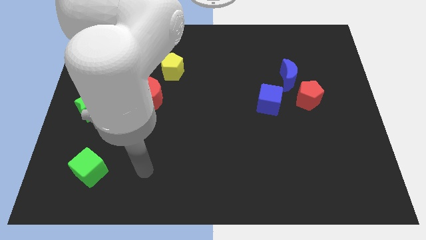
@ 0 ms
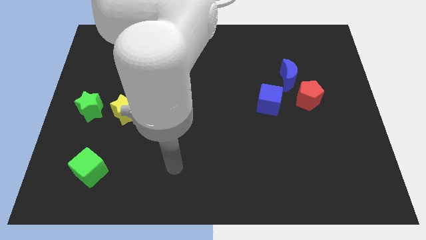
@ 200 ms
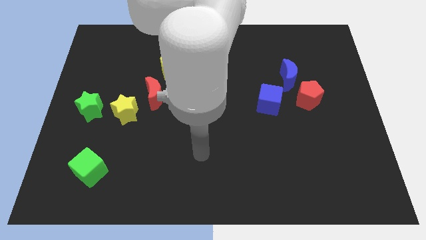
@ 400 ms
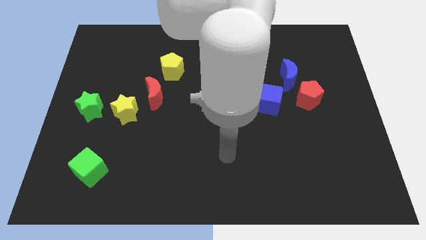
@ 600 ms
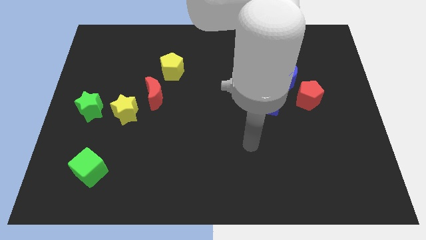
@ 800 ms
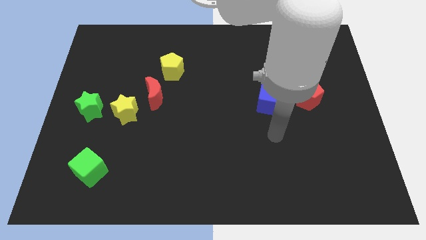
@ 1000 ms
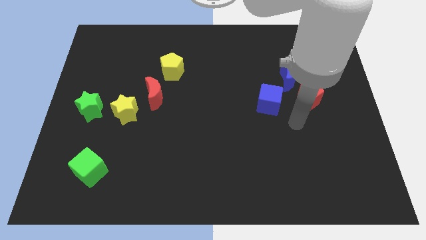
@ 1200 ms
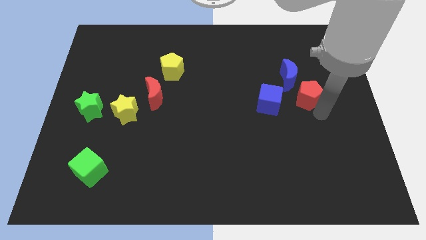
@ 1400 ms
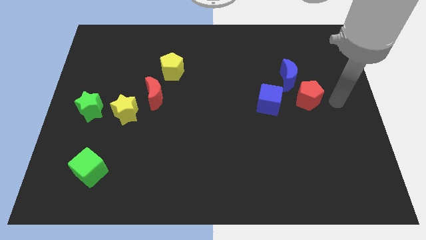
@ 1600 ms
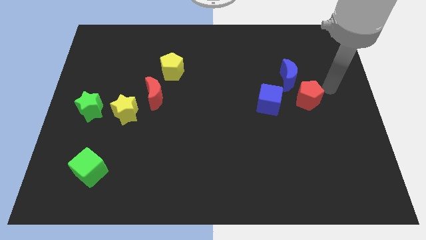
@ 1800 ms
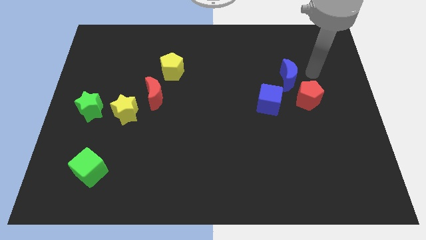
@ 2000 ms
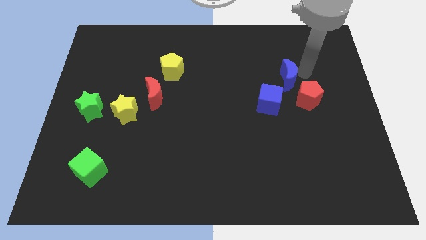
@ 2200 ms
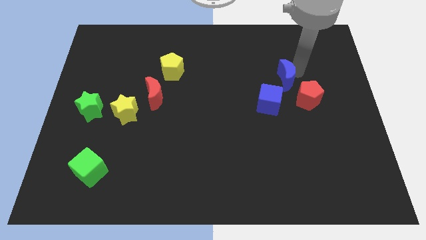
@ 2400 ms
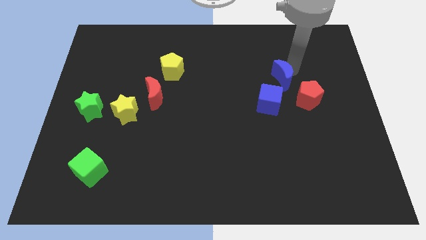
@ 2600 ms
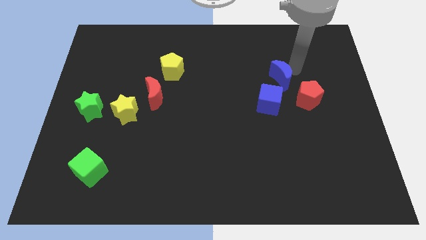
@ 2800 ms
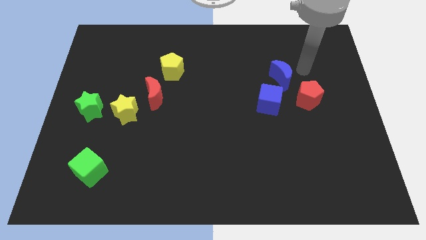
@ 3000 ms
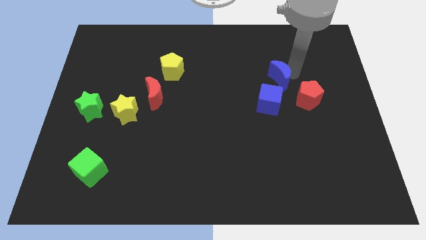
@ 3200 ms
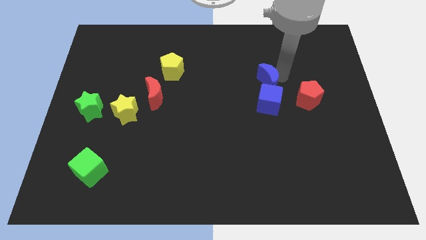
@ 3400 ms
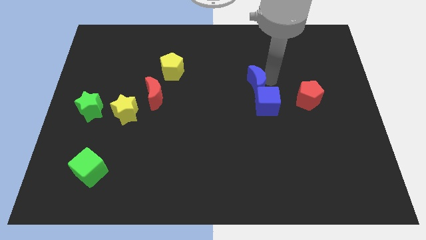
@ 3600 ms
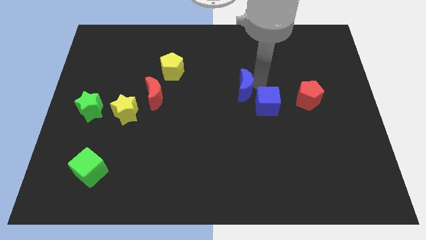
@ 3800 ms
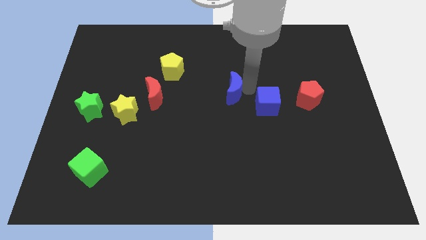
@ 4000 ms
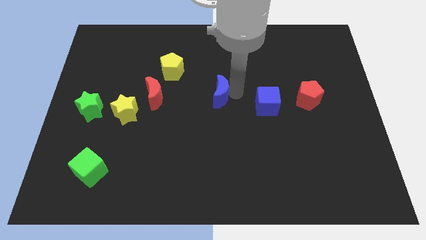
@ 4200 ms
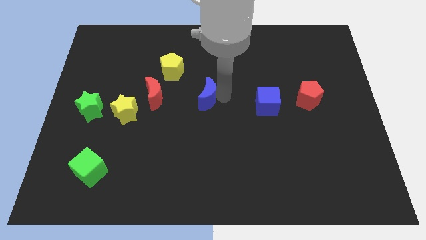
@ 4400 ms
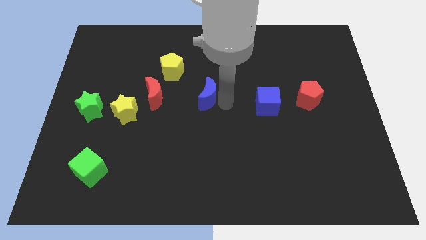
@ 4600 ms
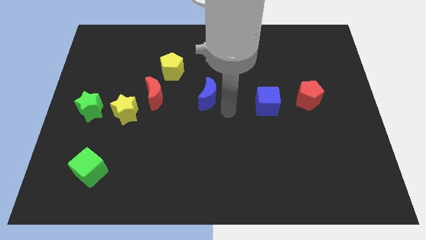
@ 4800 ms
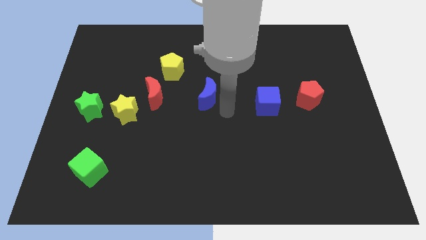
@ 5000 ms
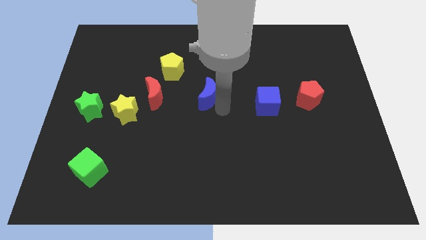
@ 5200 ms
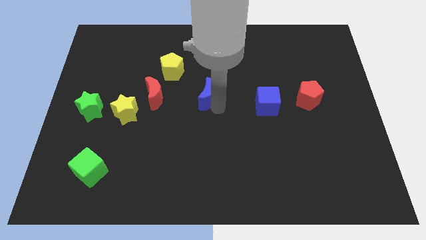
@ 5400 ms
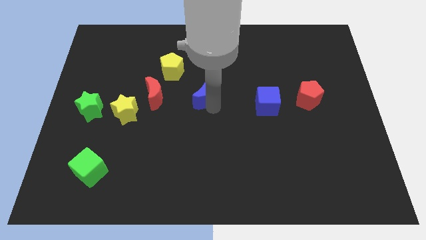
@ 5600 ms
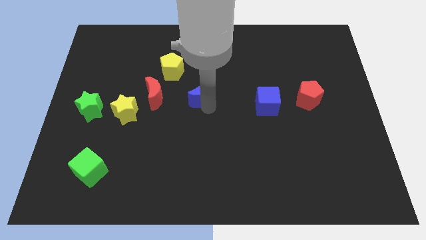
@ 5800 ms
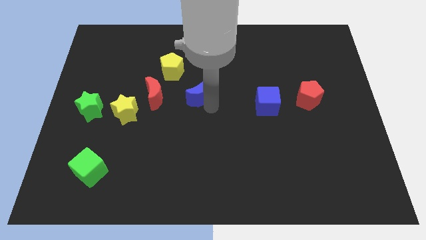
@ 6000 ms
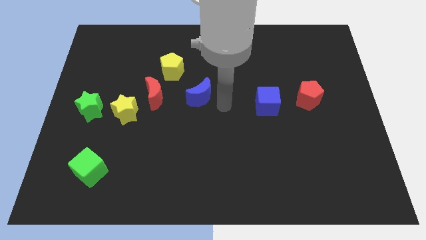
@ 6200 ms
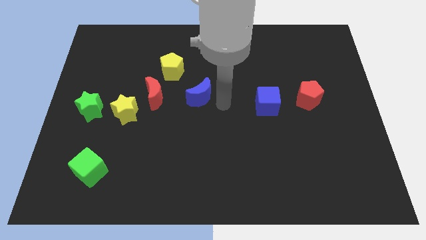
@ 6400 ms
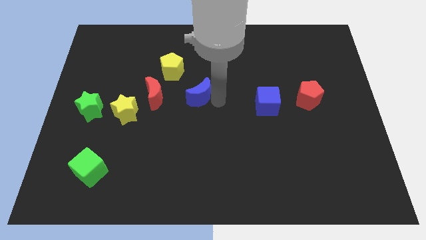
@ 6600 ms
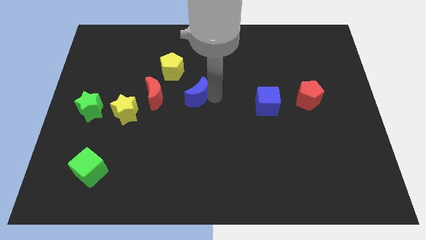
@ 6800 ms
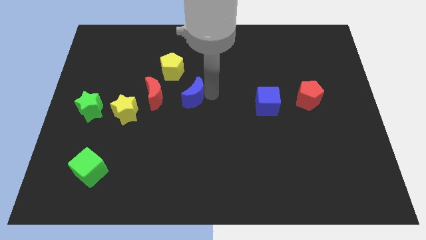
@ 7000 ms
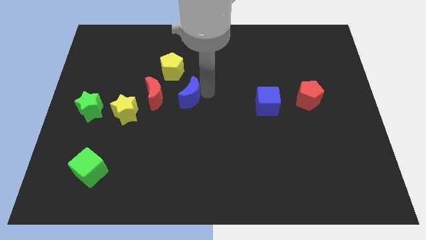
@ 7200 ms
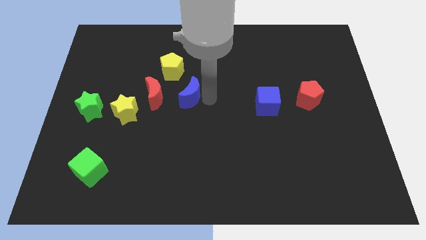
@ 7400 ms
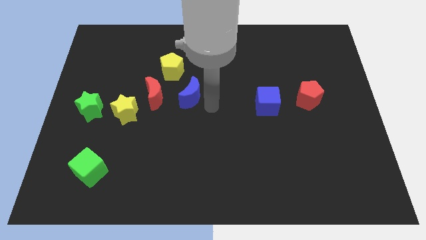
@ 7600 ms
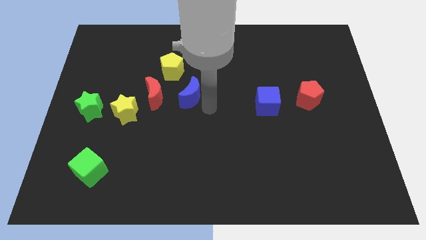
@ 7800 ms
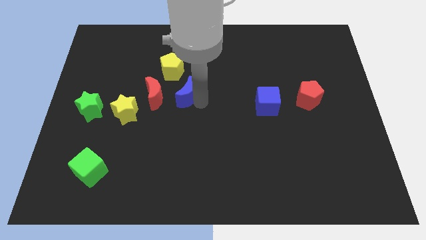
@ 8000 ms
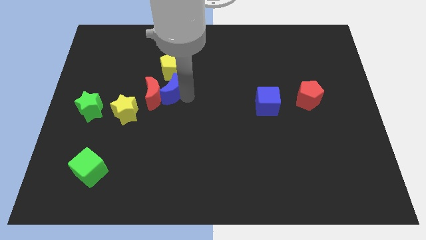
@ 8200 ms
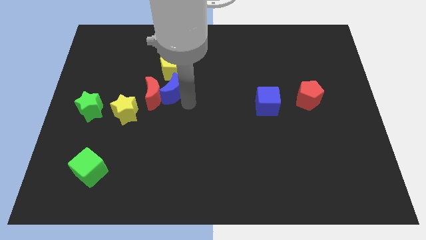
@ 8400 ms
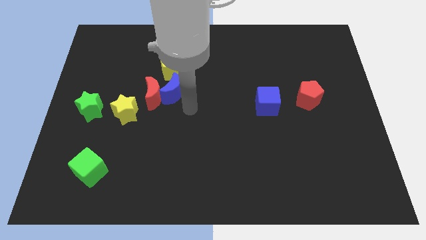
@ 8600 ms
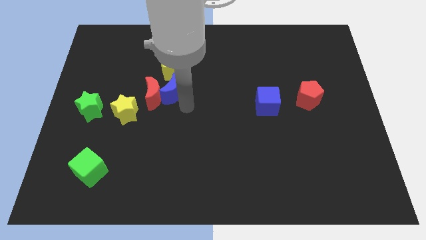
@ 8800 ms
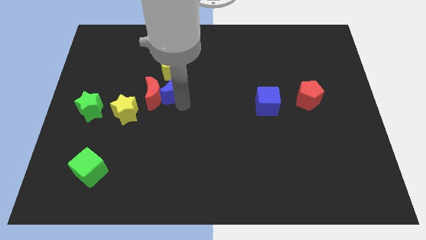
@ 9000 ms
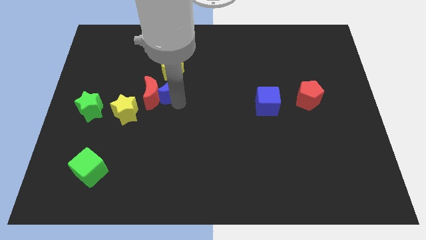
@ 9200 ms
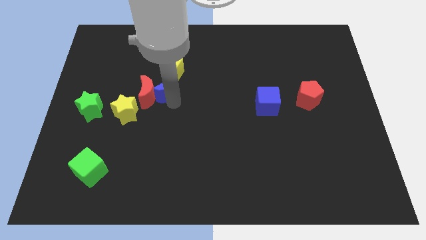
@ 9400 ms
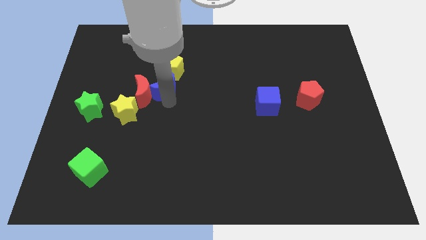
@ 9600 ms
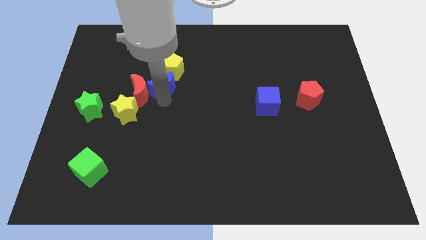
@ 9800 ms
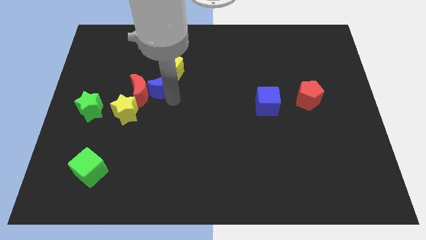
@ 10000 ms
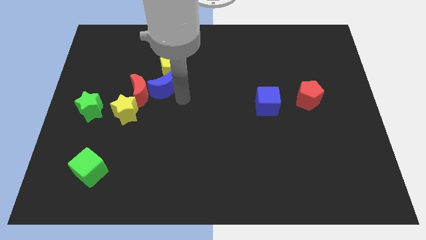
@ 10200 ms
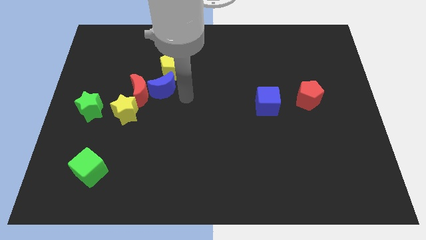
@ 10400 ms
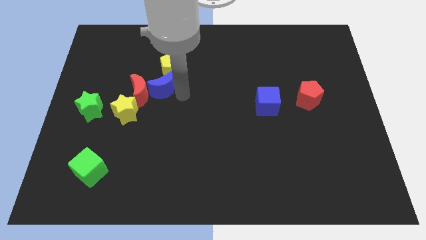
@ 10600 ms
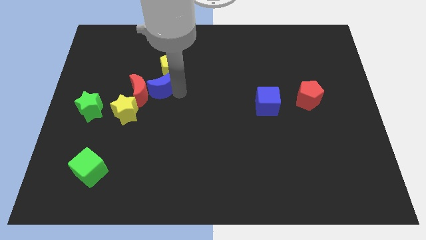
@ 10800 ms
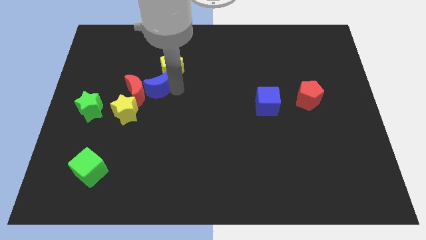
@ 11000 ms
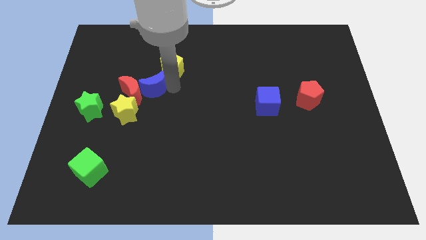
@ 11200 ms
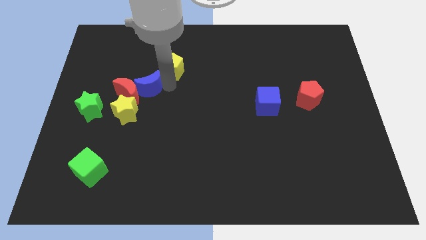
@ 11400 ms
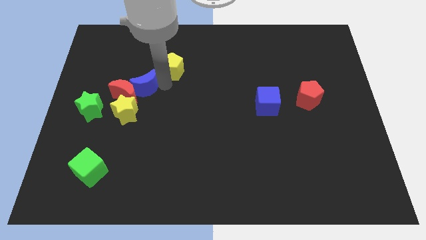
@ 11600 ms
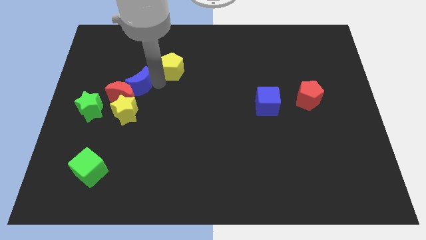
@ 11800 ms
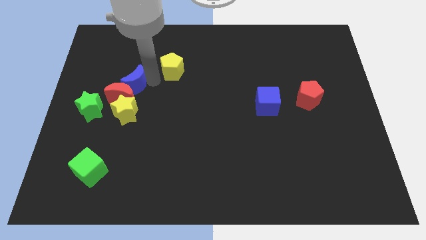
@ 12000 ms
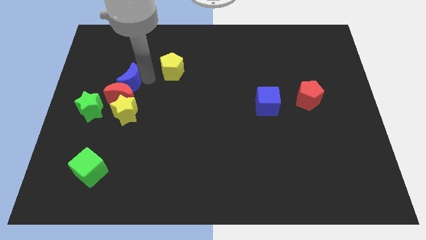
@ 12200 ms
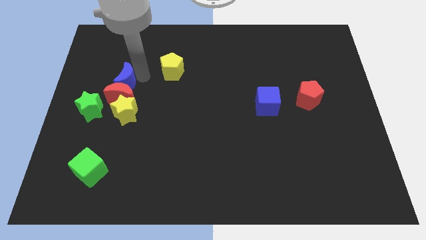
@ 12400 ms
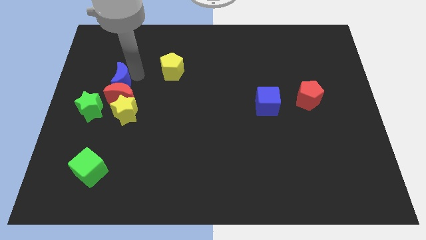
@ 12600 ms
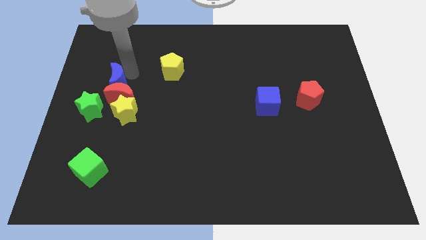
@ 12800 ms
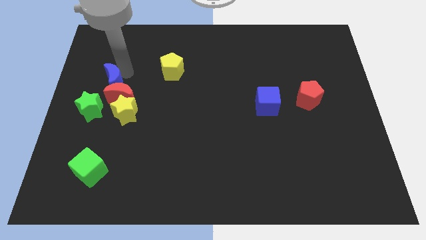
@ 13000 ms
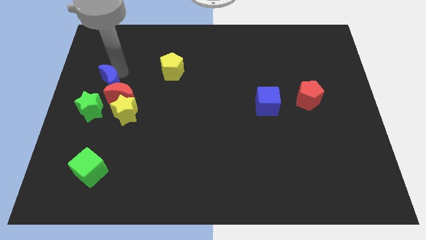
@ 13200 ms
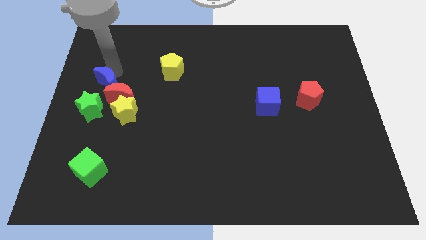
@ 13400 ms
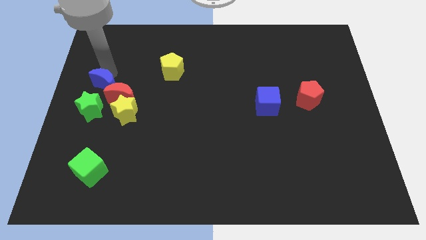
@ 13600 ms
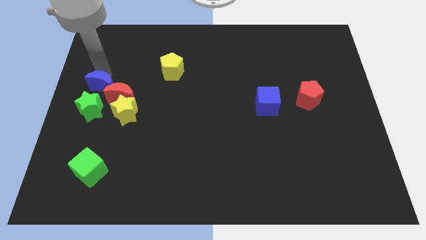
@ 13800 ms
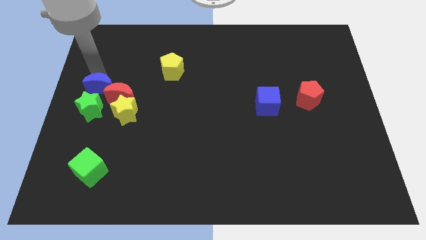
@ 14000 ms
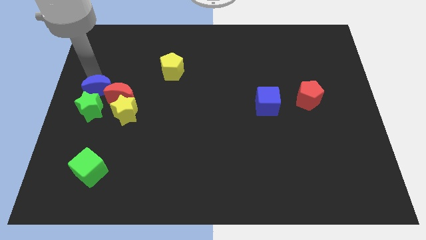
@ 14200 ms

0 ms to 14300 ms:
slide the blue moon to the green star
